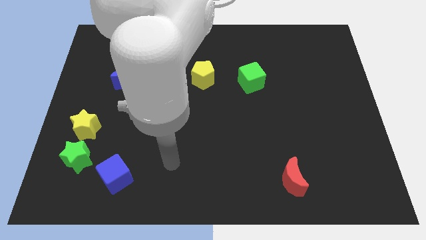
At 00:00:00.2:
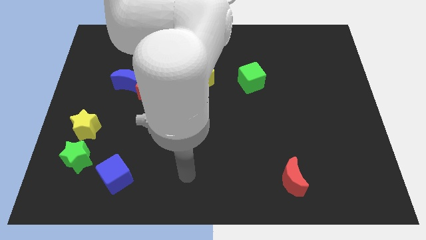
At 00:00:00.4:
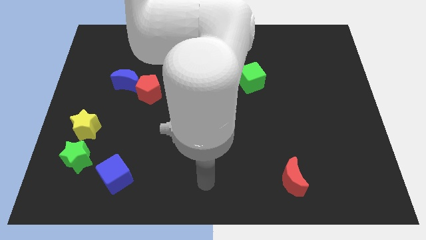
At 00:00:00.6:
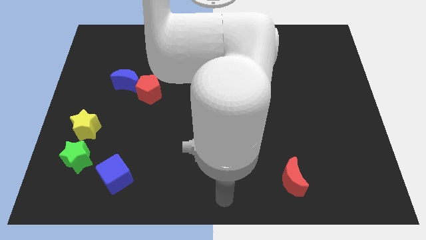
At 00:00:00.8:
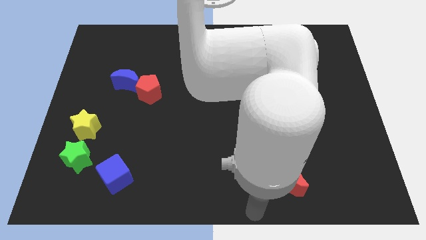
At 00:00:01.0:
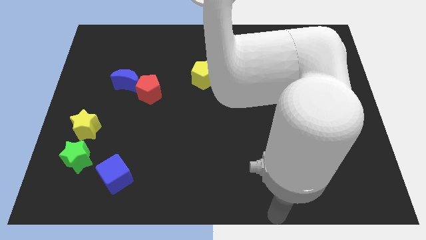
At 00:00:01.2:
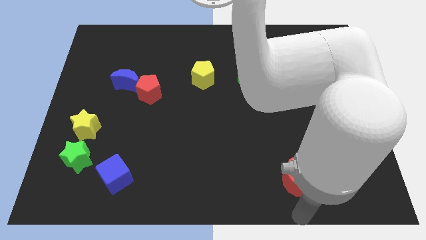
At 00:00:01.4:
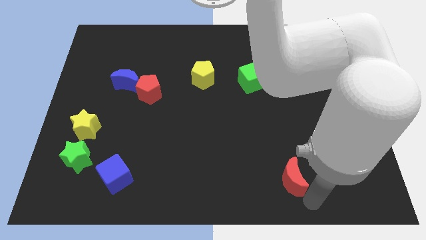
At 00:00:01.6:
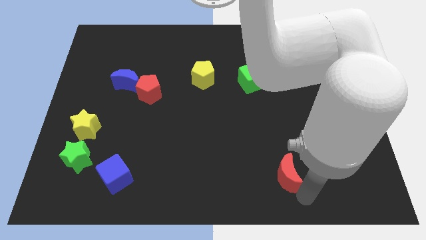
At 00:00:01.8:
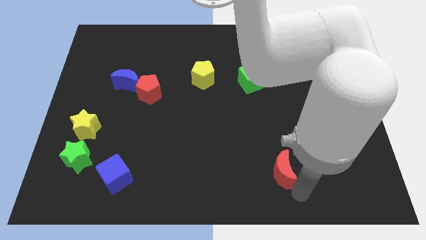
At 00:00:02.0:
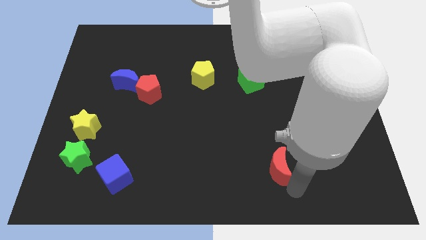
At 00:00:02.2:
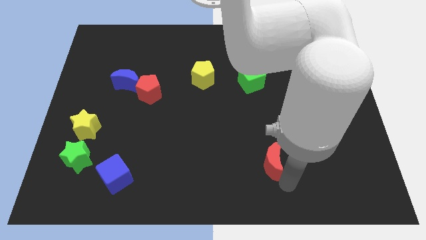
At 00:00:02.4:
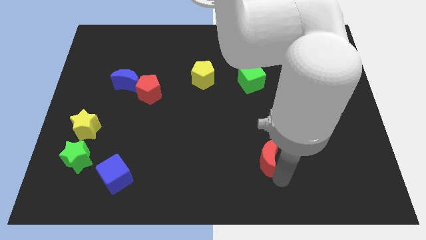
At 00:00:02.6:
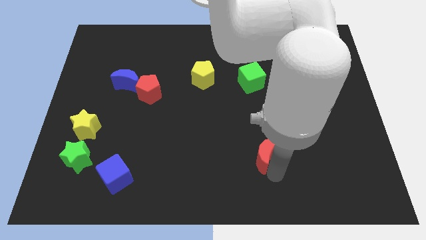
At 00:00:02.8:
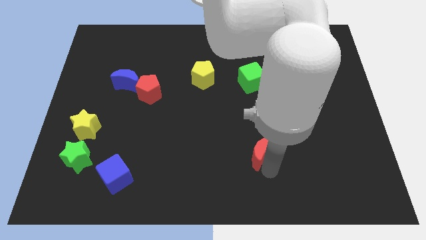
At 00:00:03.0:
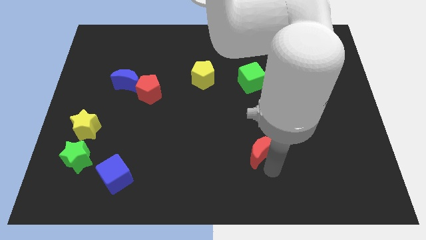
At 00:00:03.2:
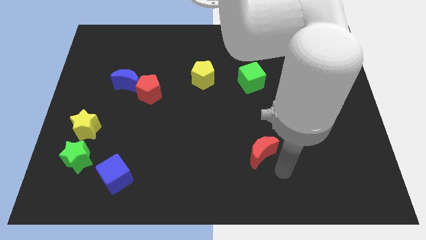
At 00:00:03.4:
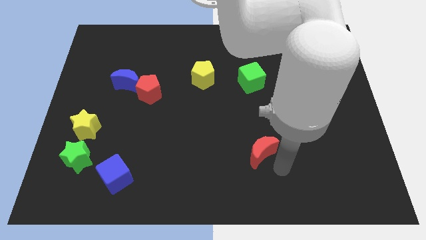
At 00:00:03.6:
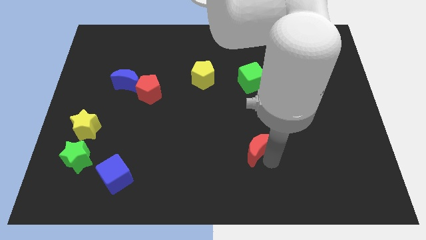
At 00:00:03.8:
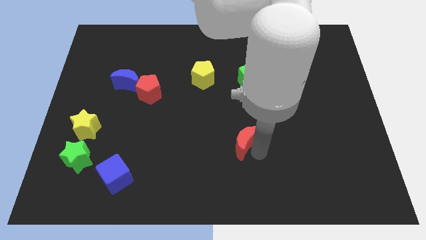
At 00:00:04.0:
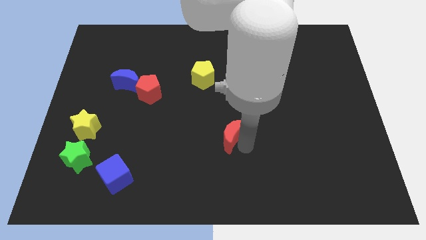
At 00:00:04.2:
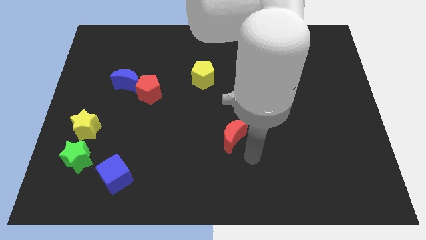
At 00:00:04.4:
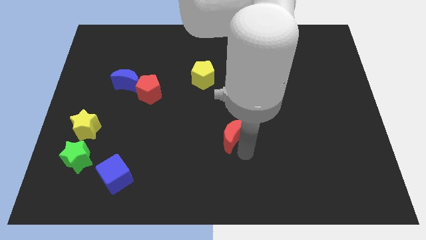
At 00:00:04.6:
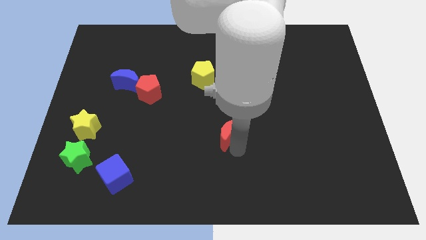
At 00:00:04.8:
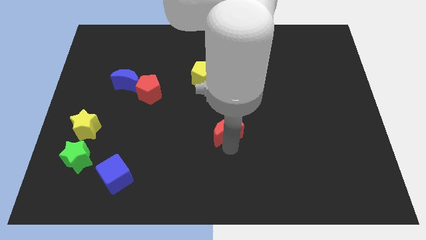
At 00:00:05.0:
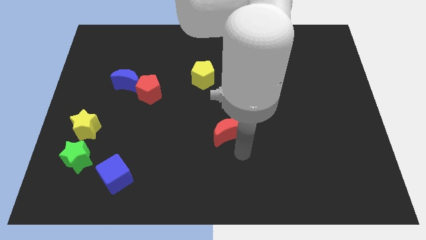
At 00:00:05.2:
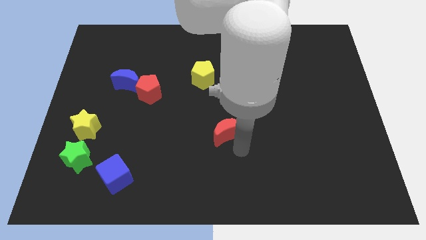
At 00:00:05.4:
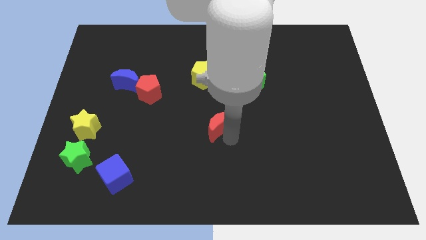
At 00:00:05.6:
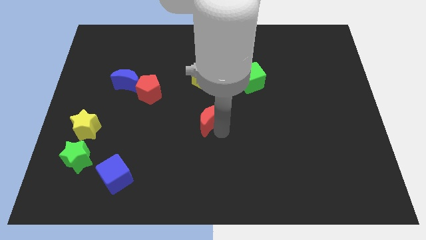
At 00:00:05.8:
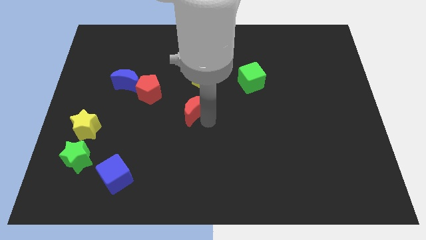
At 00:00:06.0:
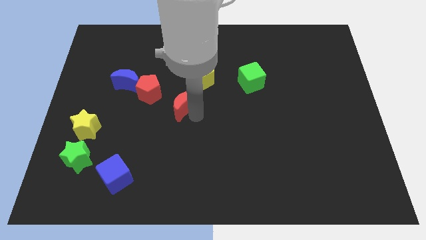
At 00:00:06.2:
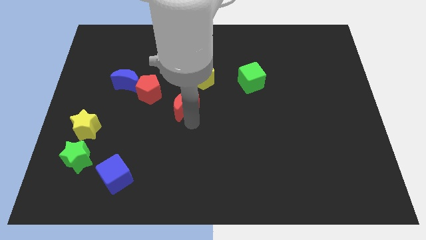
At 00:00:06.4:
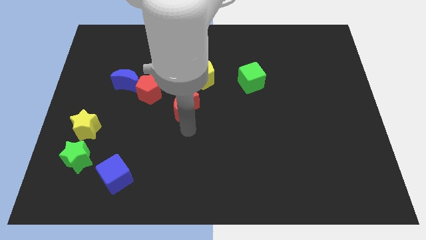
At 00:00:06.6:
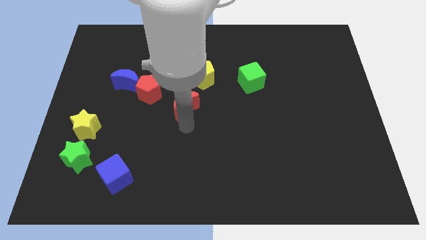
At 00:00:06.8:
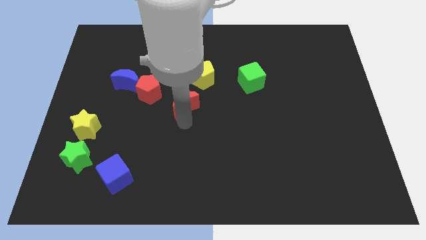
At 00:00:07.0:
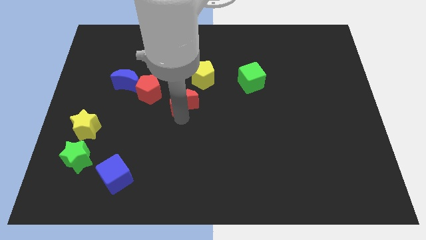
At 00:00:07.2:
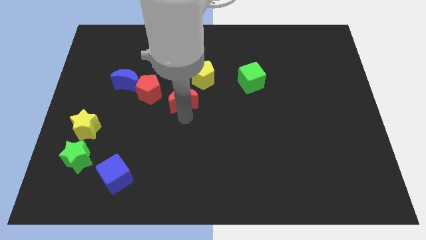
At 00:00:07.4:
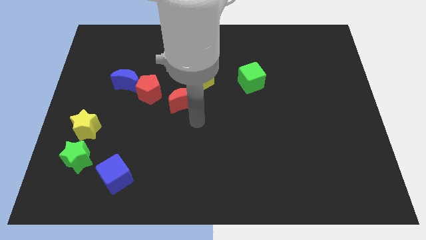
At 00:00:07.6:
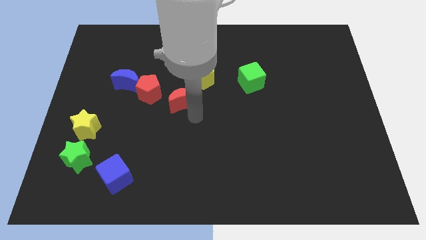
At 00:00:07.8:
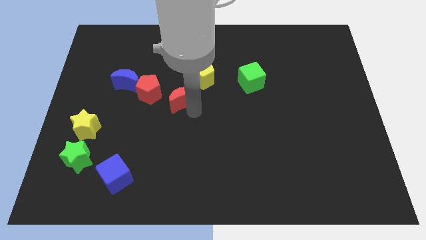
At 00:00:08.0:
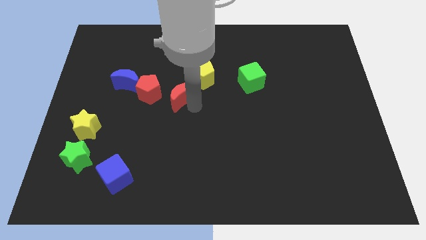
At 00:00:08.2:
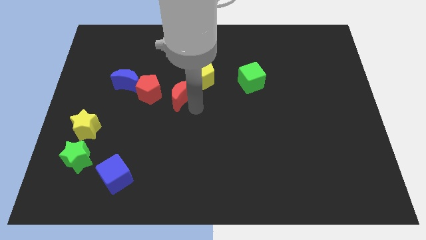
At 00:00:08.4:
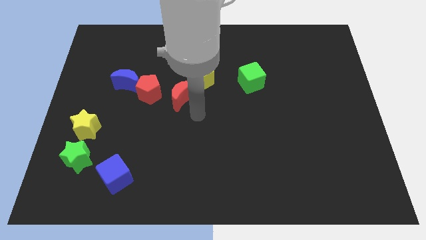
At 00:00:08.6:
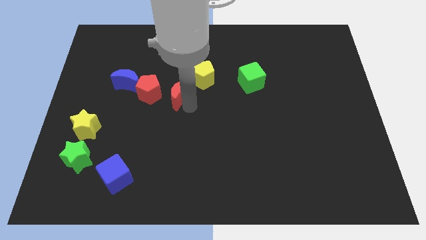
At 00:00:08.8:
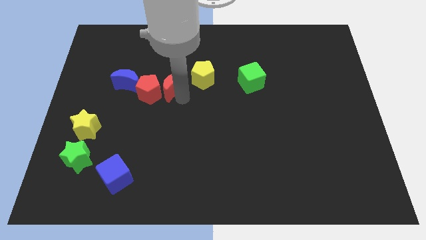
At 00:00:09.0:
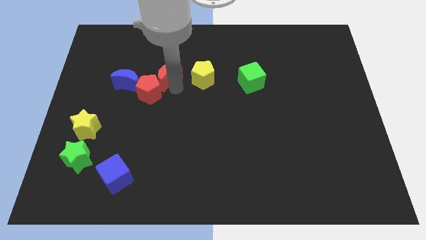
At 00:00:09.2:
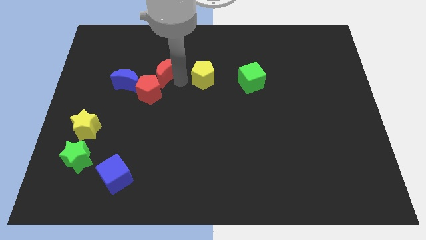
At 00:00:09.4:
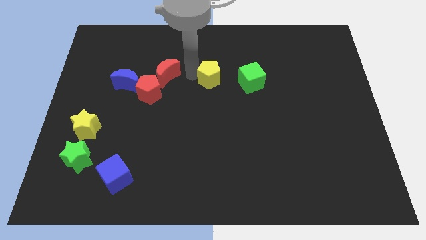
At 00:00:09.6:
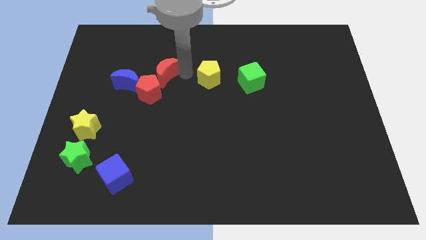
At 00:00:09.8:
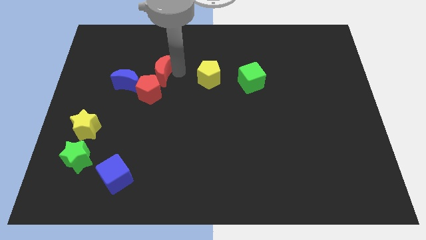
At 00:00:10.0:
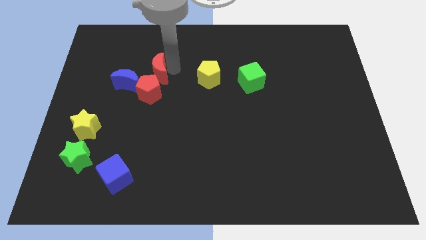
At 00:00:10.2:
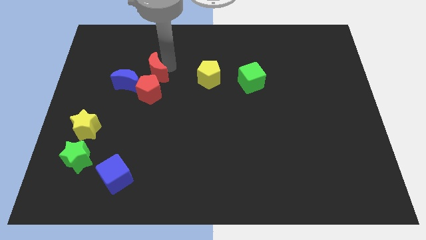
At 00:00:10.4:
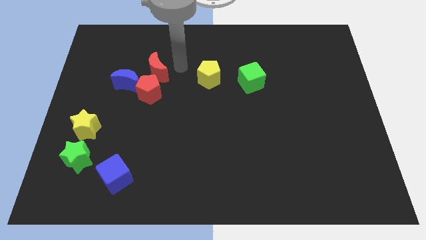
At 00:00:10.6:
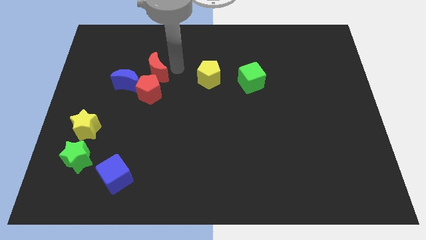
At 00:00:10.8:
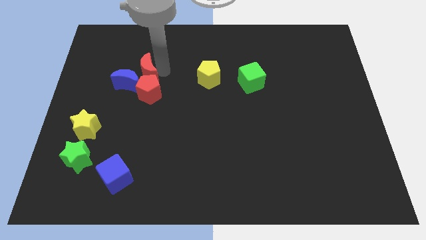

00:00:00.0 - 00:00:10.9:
move the red moon diagonally up and to the left of the red pentagon
